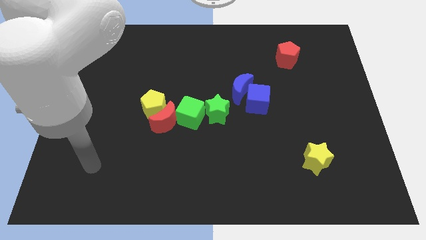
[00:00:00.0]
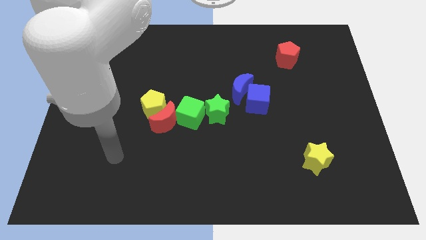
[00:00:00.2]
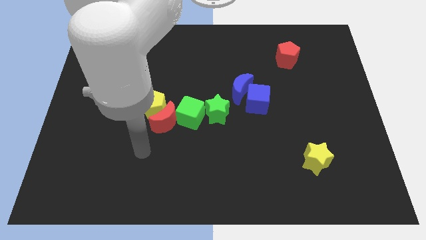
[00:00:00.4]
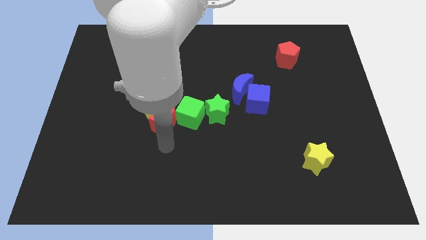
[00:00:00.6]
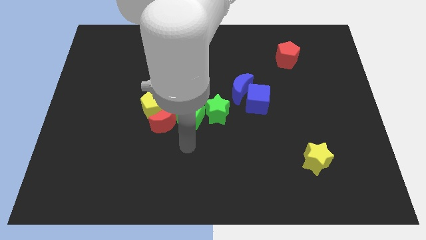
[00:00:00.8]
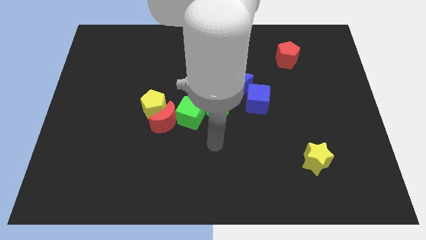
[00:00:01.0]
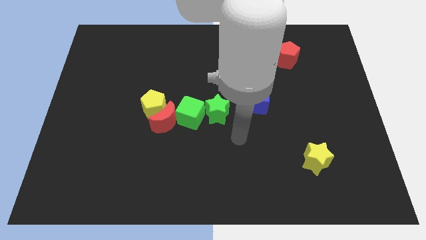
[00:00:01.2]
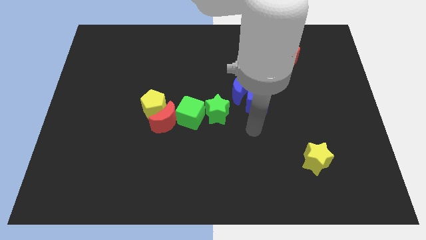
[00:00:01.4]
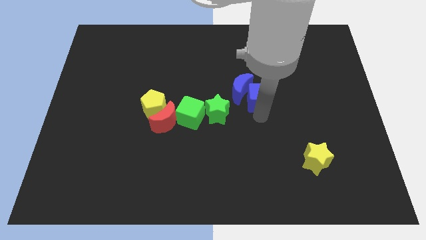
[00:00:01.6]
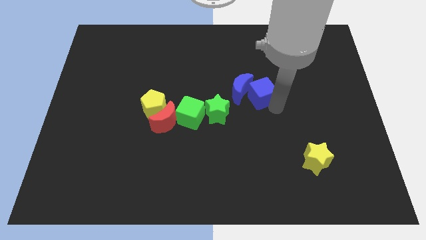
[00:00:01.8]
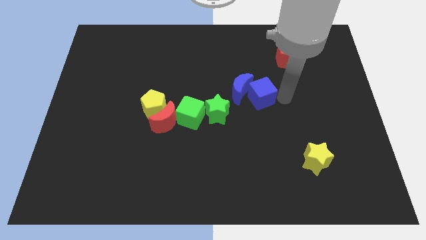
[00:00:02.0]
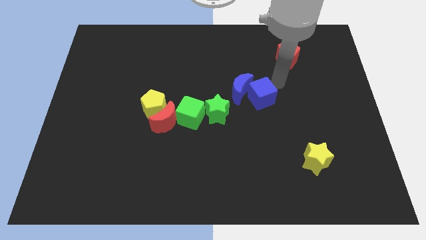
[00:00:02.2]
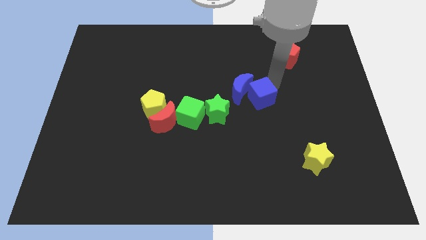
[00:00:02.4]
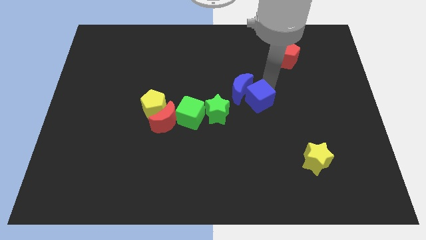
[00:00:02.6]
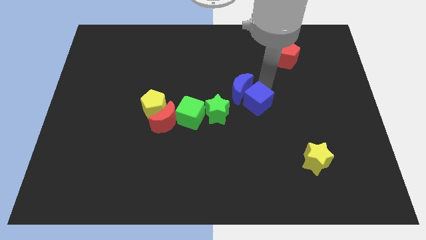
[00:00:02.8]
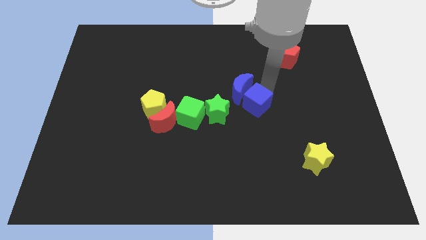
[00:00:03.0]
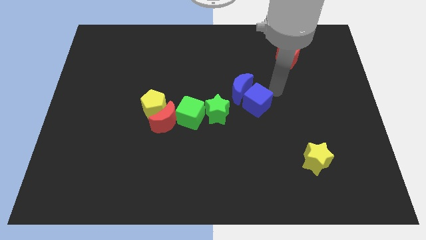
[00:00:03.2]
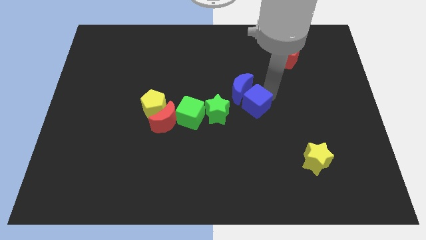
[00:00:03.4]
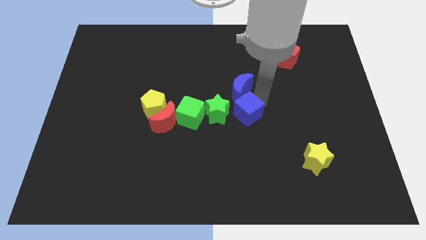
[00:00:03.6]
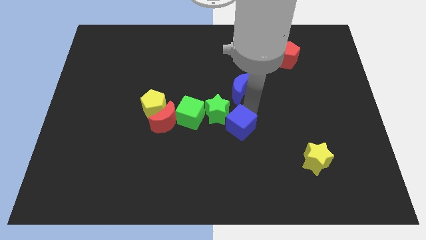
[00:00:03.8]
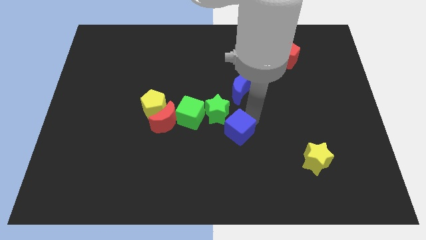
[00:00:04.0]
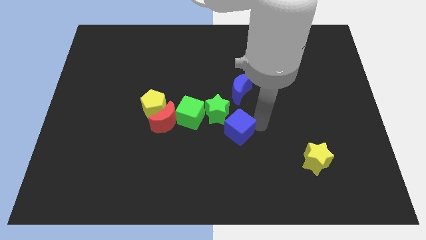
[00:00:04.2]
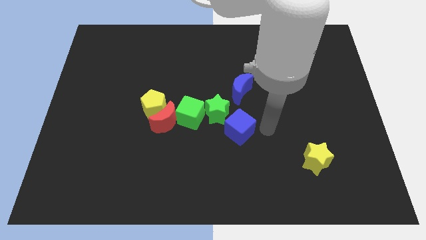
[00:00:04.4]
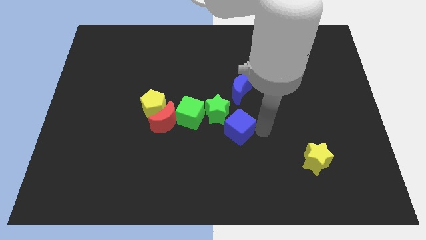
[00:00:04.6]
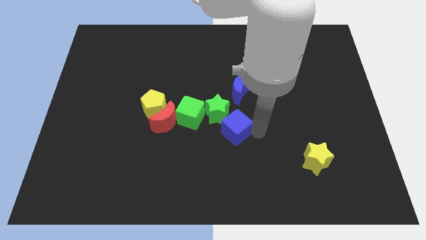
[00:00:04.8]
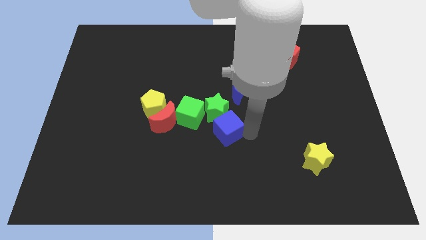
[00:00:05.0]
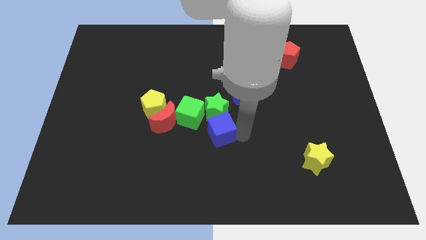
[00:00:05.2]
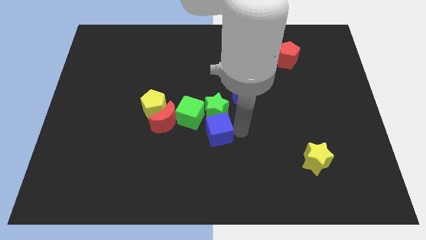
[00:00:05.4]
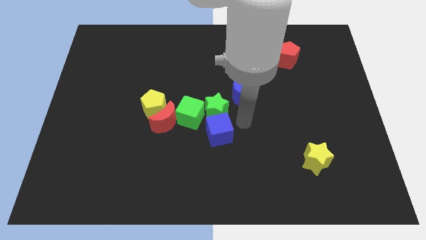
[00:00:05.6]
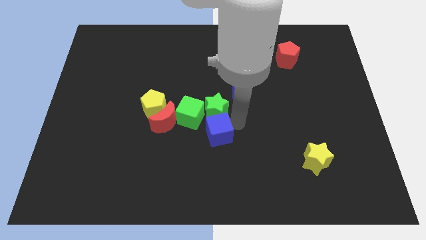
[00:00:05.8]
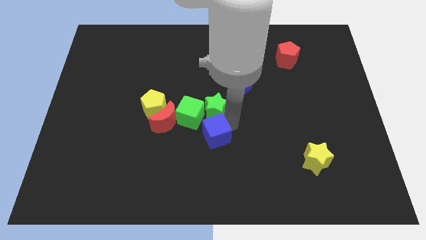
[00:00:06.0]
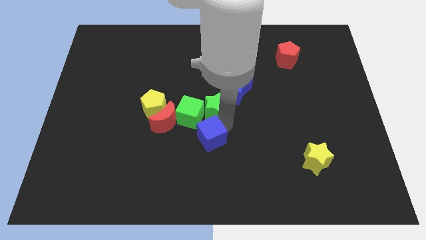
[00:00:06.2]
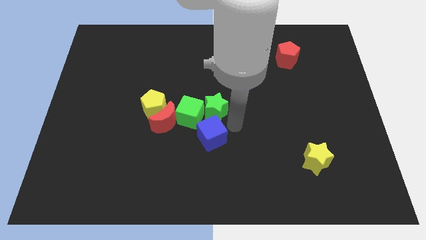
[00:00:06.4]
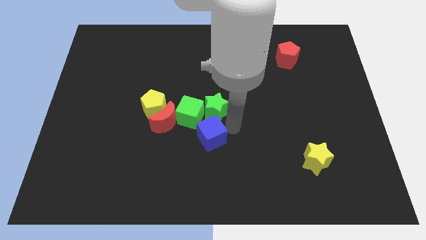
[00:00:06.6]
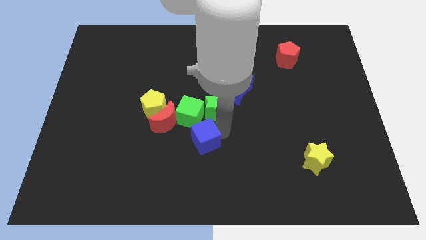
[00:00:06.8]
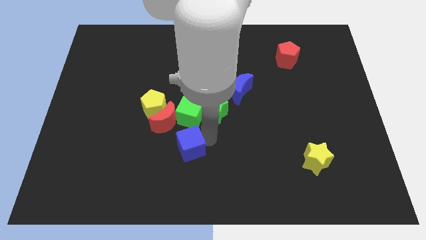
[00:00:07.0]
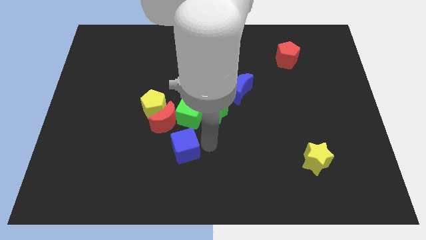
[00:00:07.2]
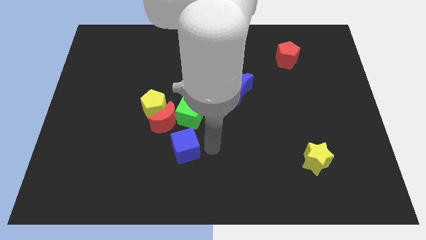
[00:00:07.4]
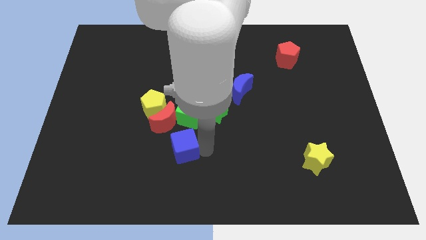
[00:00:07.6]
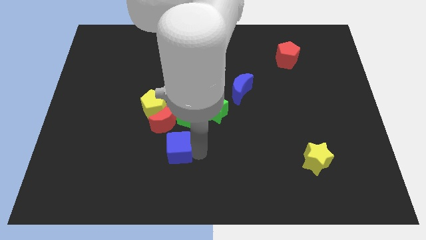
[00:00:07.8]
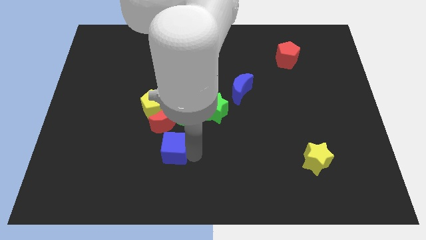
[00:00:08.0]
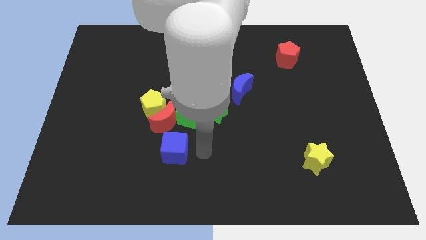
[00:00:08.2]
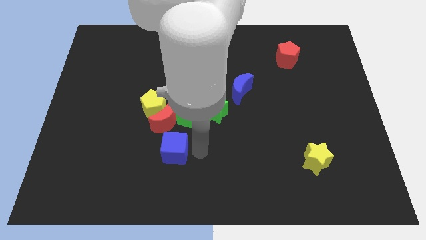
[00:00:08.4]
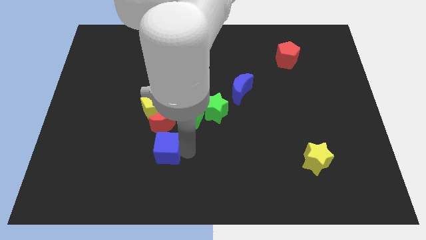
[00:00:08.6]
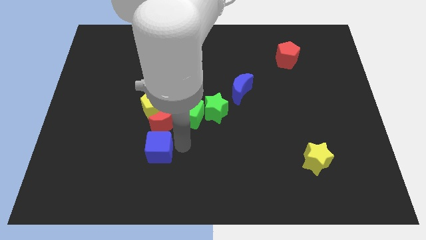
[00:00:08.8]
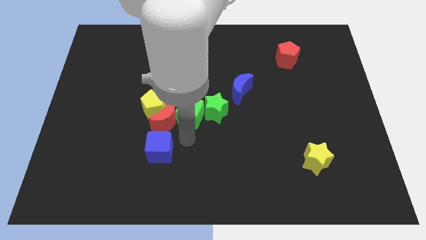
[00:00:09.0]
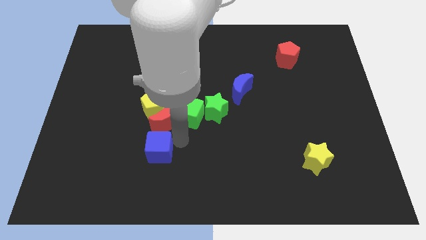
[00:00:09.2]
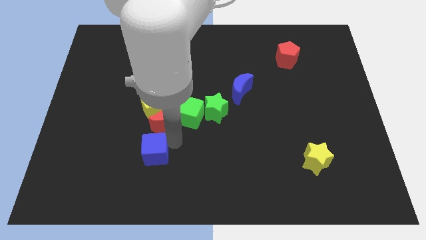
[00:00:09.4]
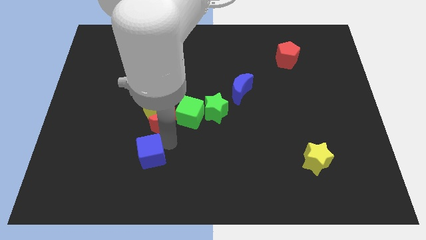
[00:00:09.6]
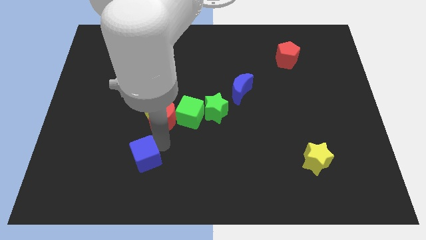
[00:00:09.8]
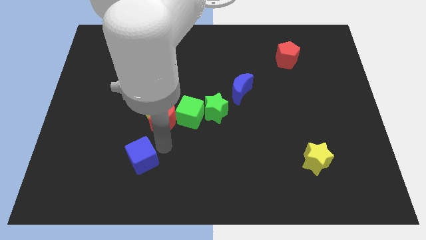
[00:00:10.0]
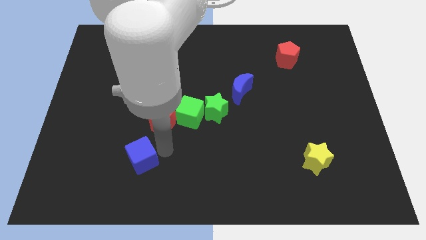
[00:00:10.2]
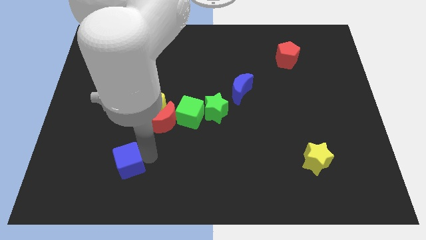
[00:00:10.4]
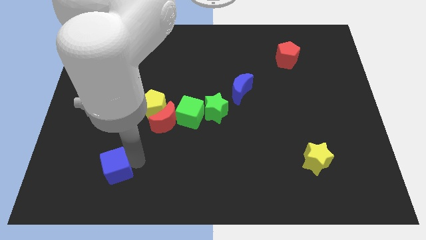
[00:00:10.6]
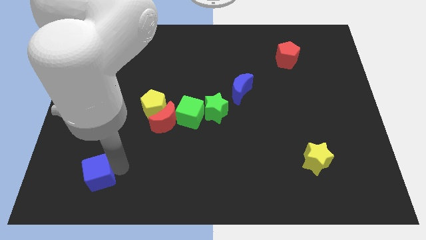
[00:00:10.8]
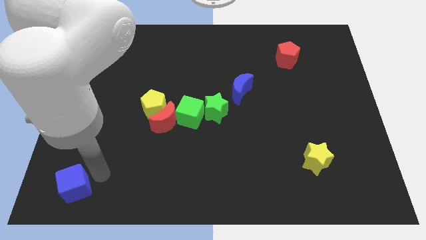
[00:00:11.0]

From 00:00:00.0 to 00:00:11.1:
slide the blue cube to the lower left corner
